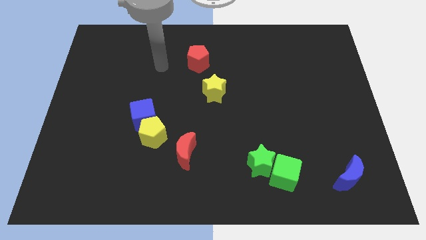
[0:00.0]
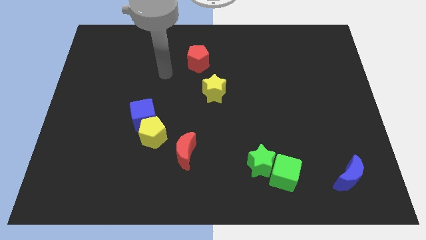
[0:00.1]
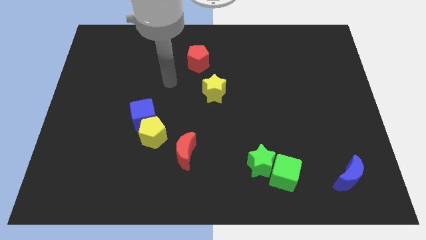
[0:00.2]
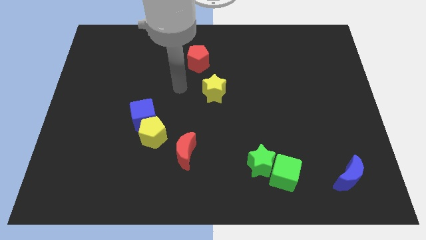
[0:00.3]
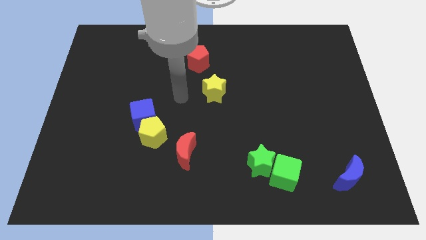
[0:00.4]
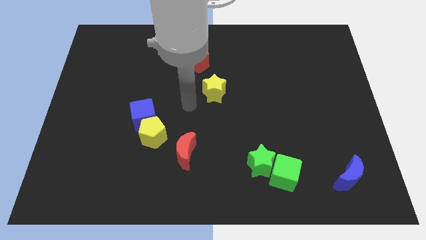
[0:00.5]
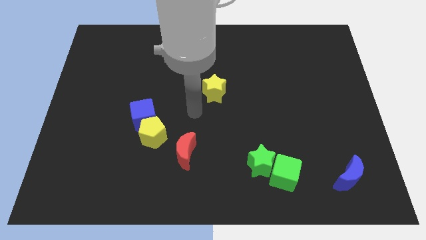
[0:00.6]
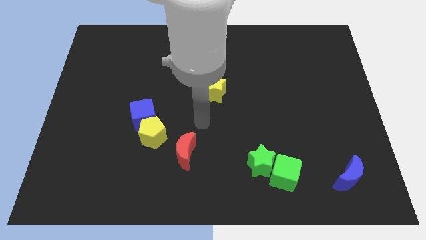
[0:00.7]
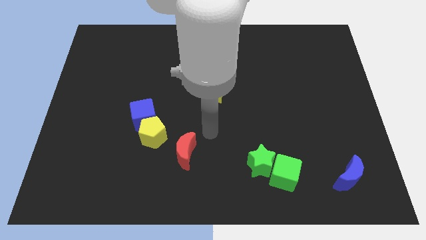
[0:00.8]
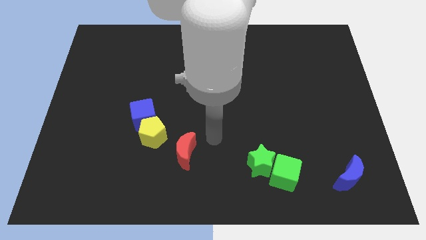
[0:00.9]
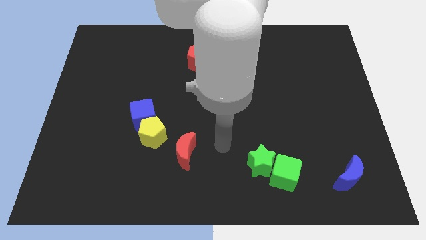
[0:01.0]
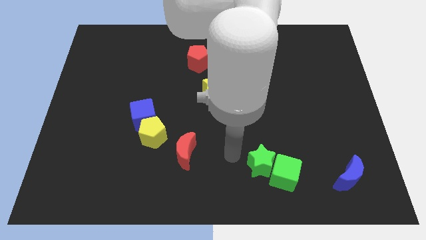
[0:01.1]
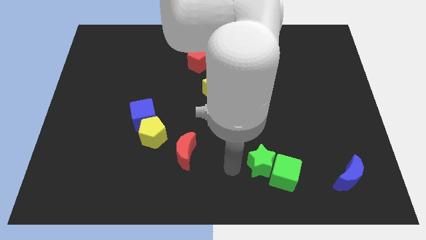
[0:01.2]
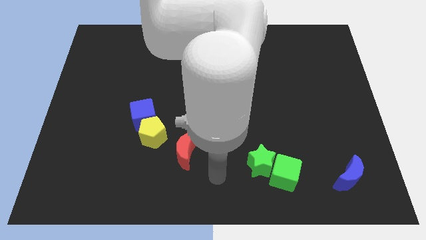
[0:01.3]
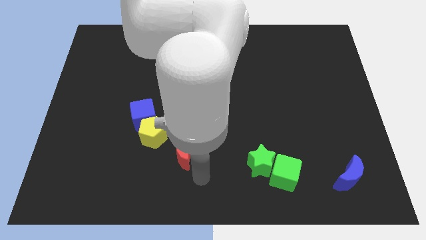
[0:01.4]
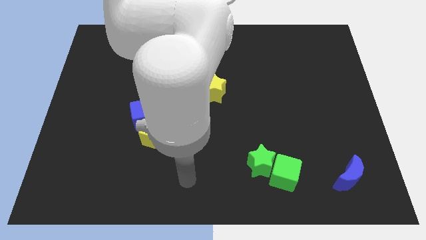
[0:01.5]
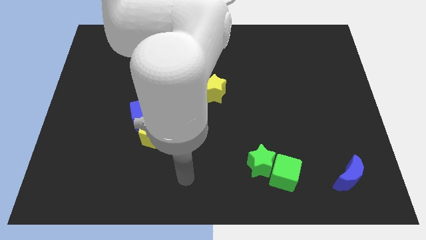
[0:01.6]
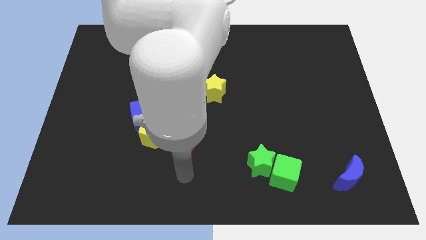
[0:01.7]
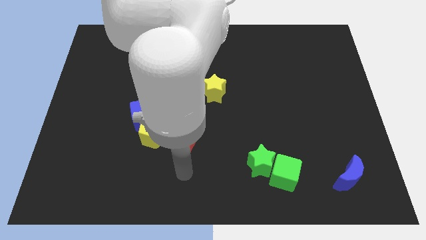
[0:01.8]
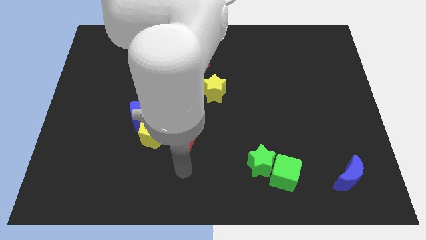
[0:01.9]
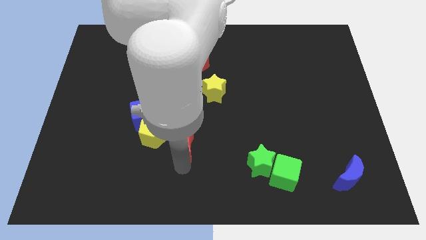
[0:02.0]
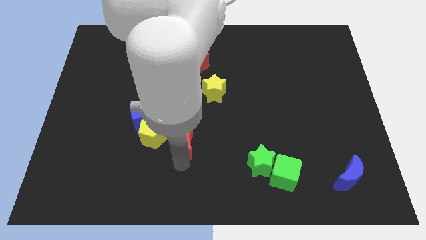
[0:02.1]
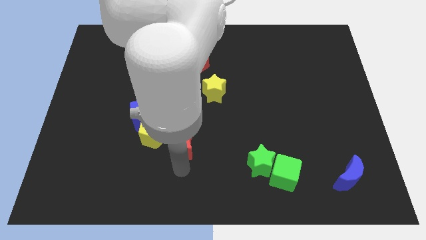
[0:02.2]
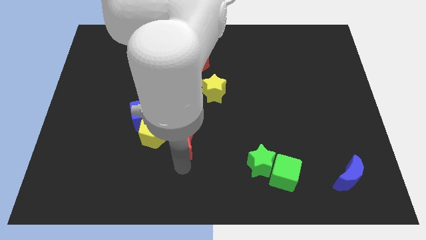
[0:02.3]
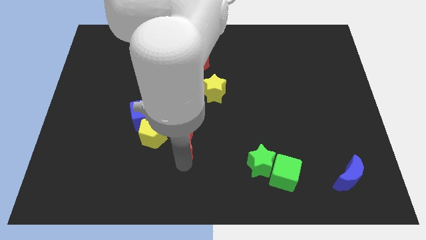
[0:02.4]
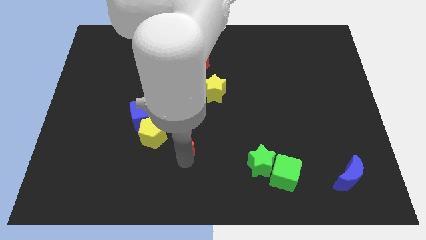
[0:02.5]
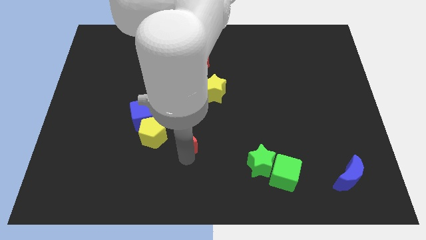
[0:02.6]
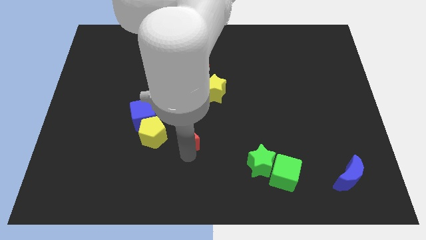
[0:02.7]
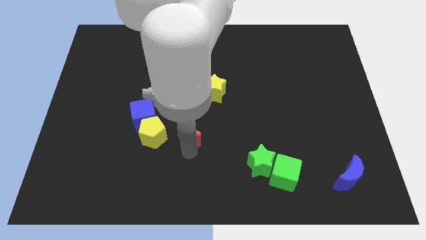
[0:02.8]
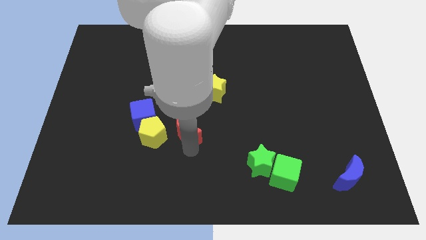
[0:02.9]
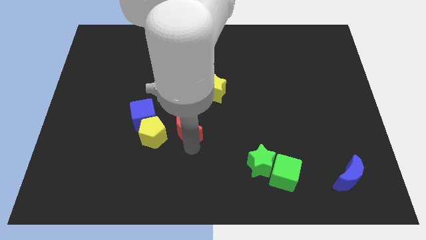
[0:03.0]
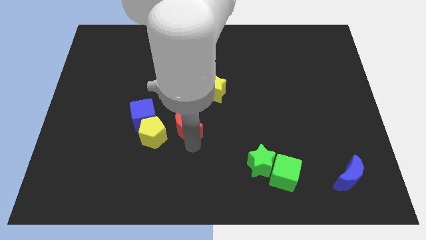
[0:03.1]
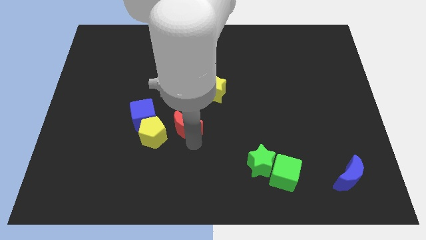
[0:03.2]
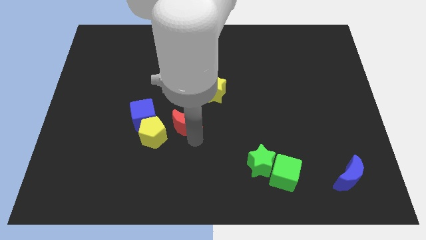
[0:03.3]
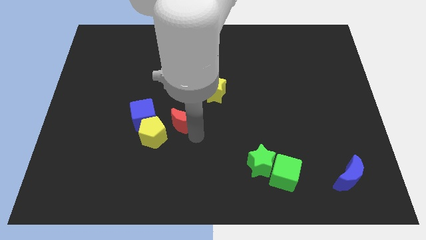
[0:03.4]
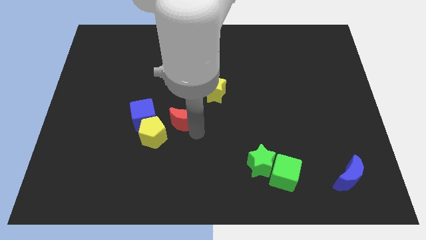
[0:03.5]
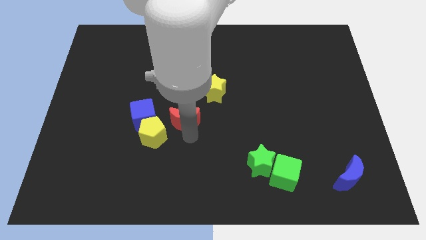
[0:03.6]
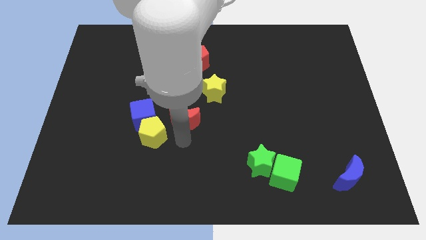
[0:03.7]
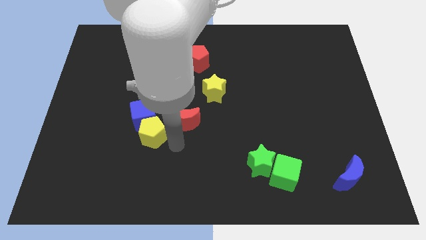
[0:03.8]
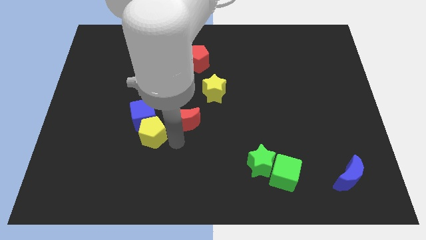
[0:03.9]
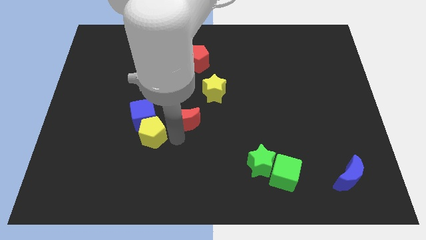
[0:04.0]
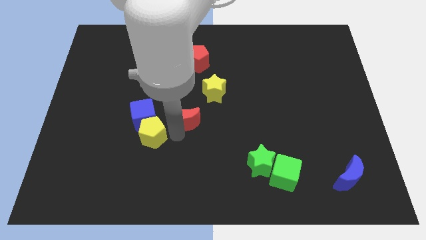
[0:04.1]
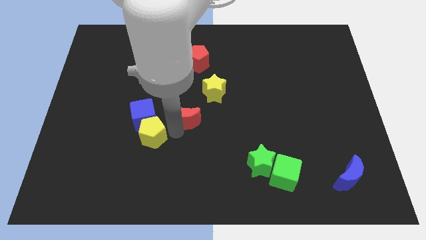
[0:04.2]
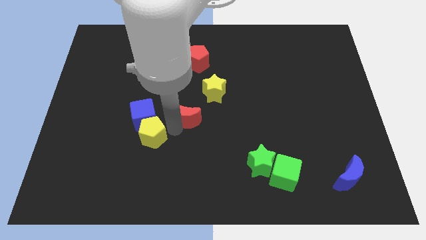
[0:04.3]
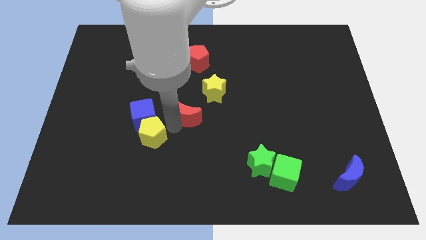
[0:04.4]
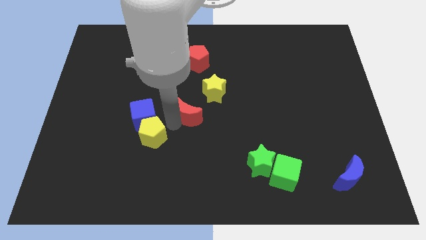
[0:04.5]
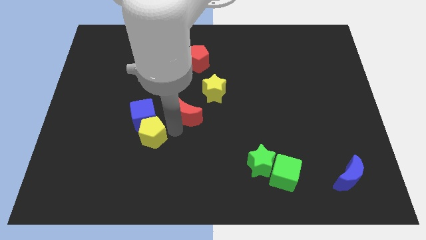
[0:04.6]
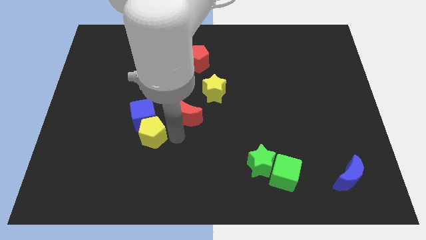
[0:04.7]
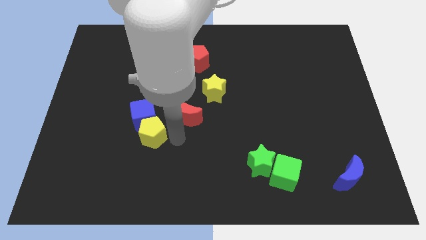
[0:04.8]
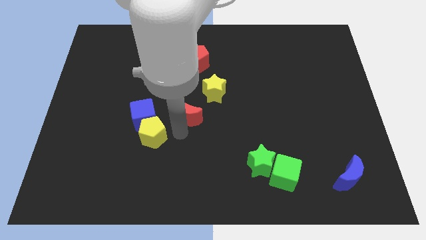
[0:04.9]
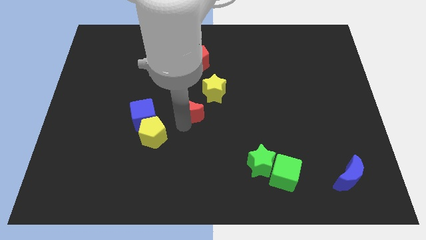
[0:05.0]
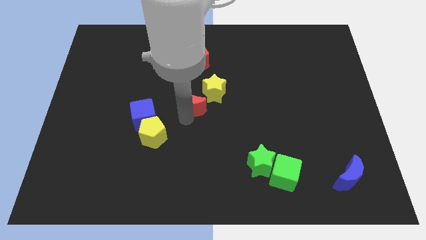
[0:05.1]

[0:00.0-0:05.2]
put the red moon to the bottom of the red pentagon

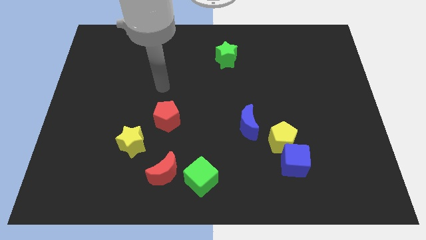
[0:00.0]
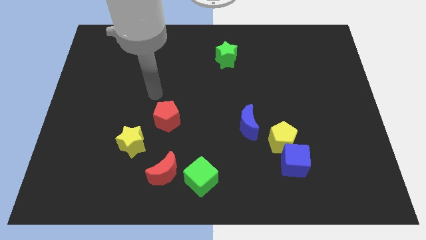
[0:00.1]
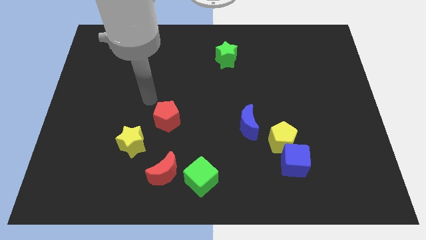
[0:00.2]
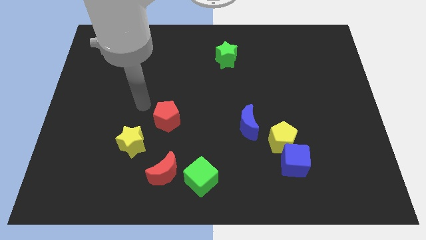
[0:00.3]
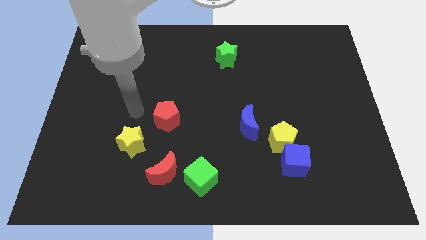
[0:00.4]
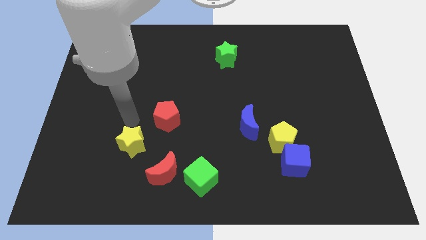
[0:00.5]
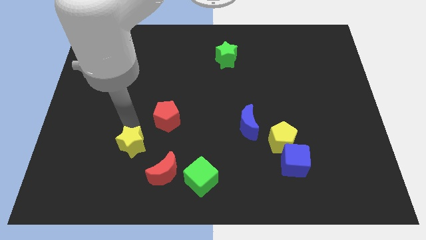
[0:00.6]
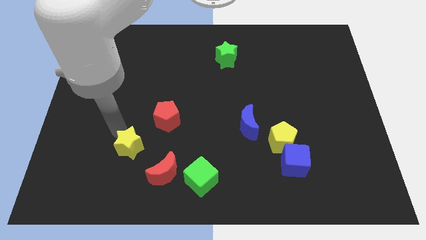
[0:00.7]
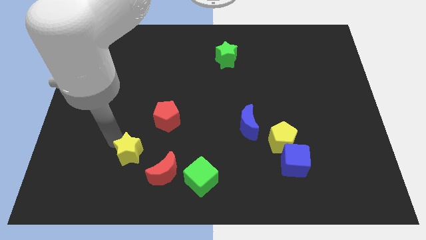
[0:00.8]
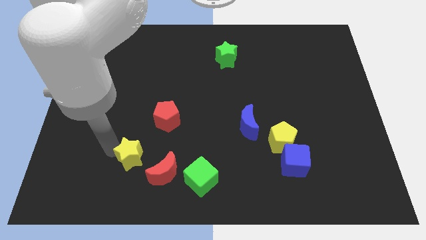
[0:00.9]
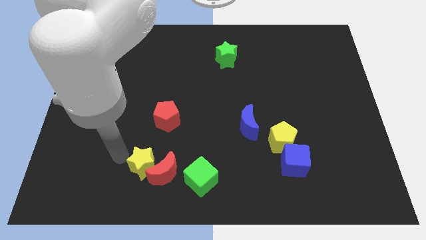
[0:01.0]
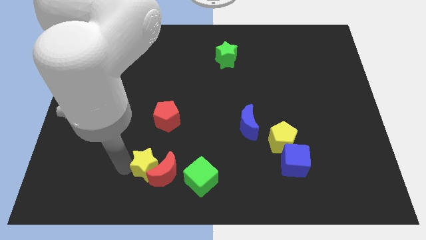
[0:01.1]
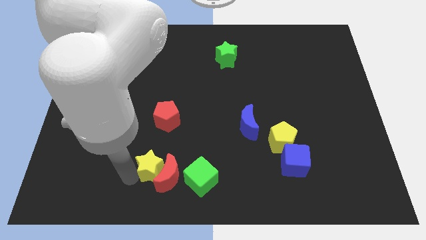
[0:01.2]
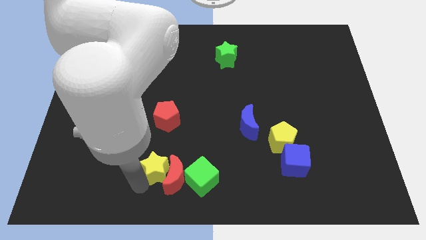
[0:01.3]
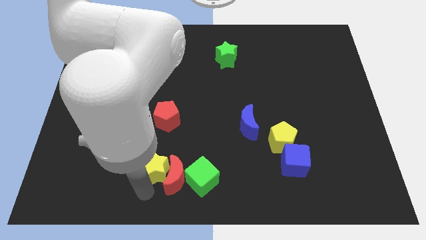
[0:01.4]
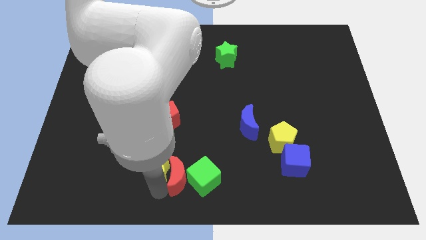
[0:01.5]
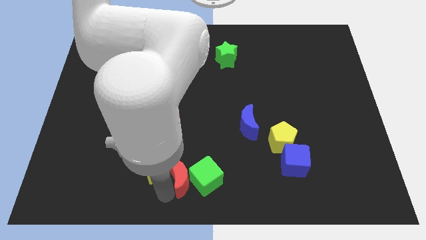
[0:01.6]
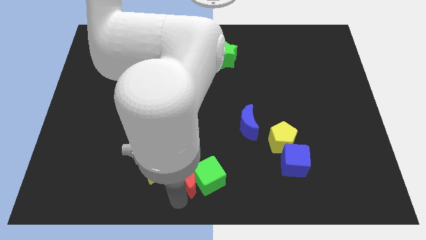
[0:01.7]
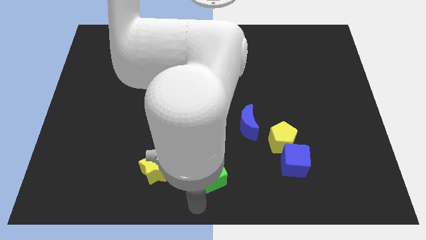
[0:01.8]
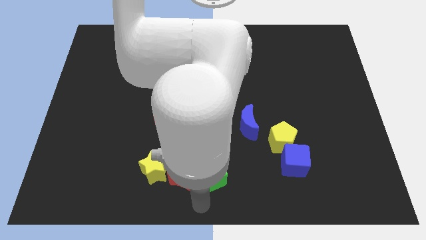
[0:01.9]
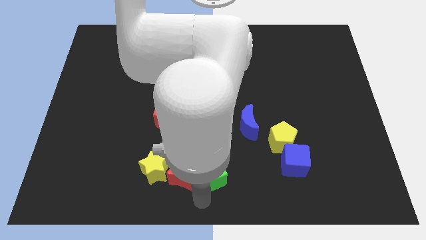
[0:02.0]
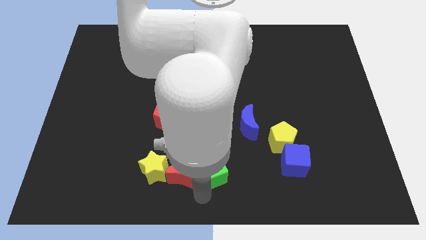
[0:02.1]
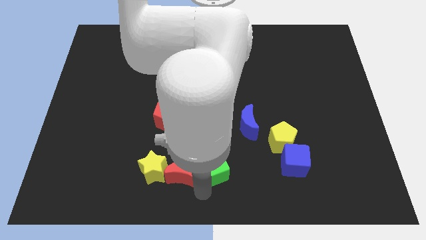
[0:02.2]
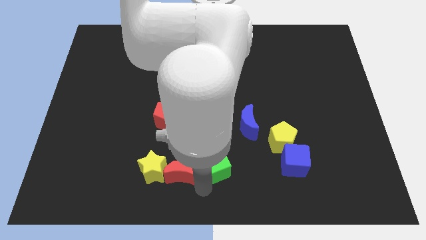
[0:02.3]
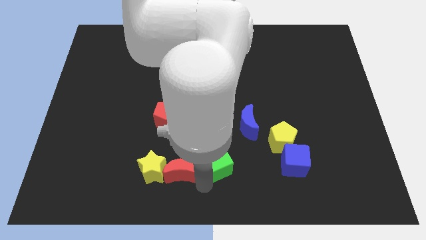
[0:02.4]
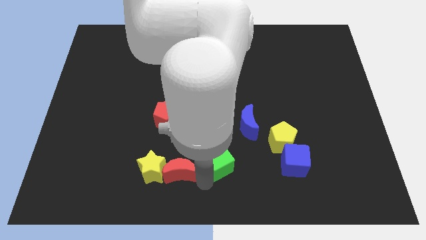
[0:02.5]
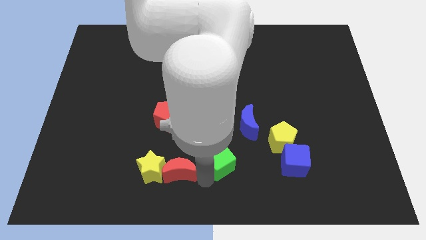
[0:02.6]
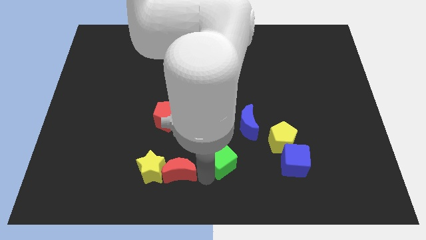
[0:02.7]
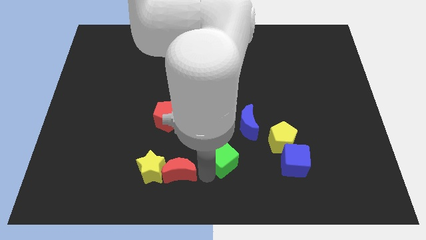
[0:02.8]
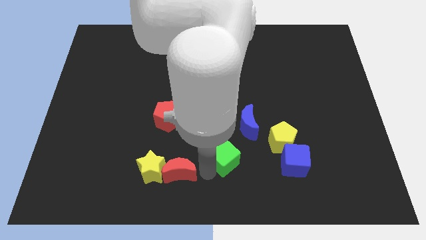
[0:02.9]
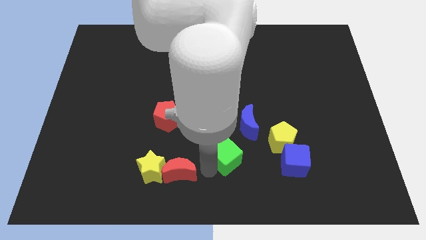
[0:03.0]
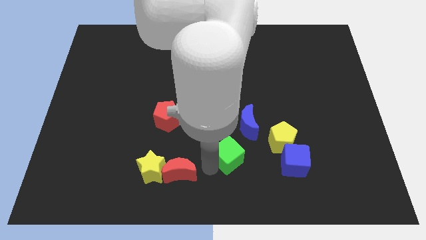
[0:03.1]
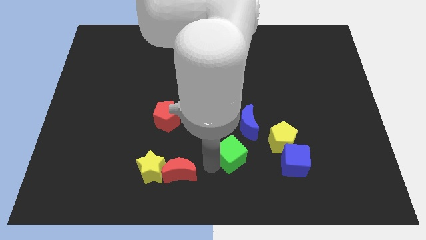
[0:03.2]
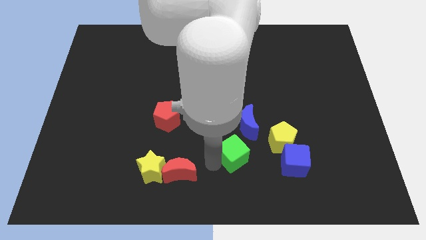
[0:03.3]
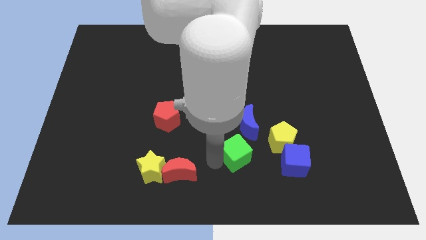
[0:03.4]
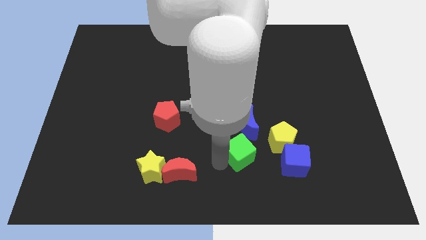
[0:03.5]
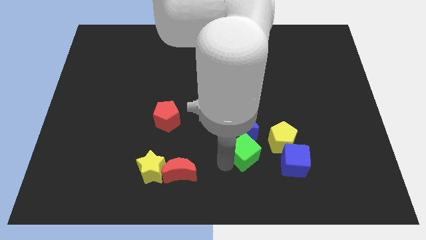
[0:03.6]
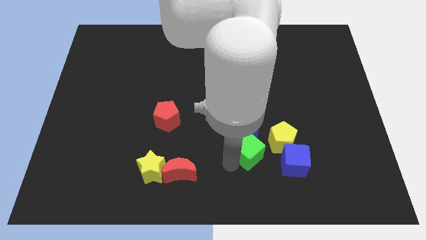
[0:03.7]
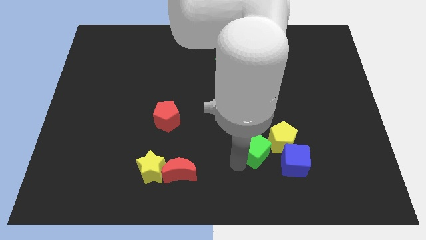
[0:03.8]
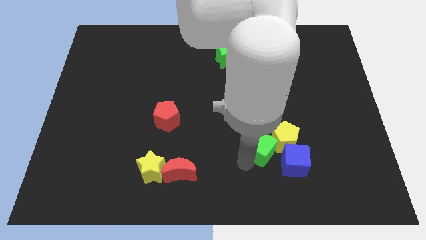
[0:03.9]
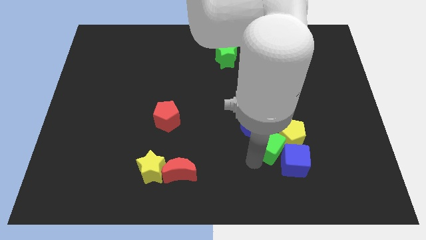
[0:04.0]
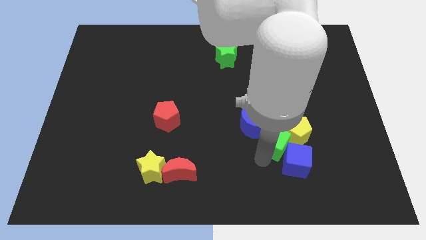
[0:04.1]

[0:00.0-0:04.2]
move the green cube to the top side of the blue cube
